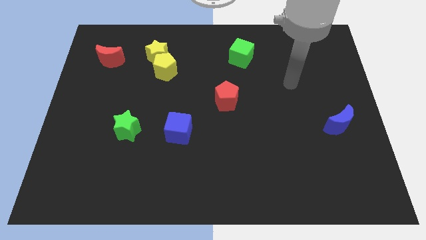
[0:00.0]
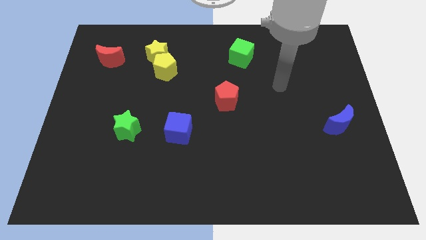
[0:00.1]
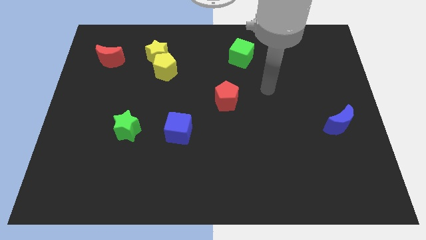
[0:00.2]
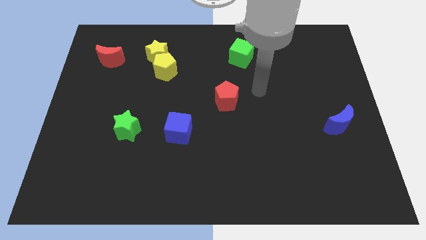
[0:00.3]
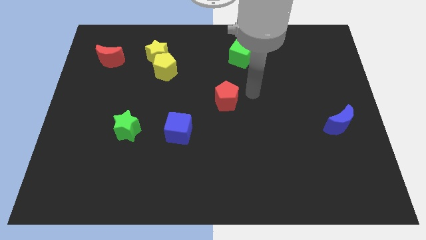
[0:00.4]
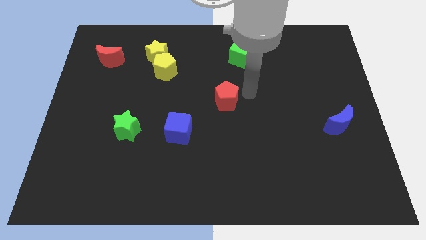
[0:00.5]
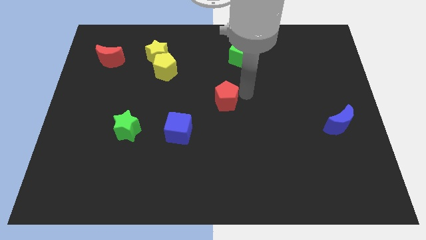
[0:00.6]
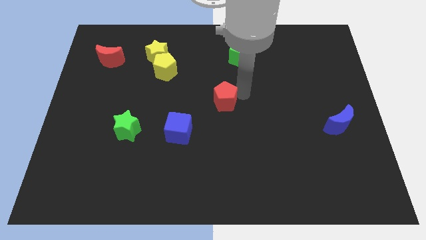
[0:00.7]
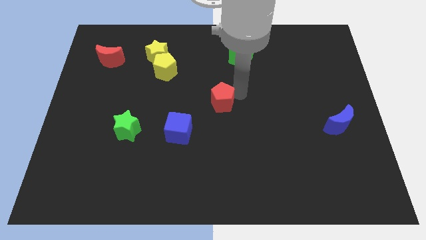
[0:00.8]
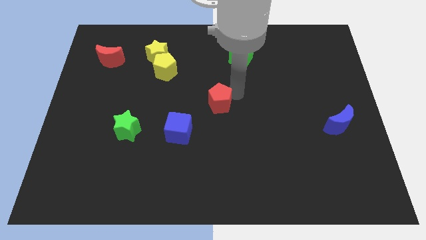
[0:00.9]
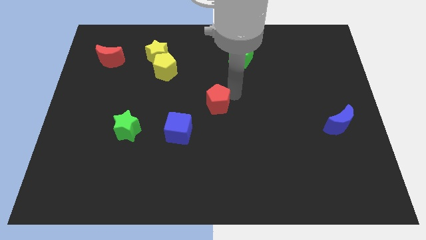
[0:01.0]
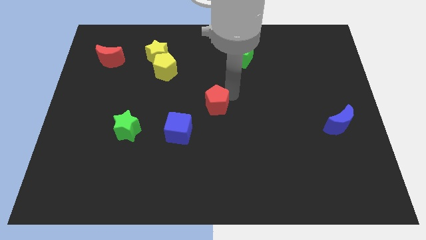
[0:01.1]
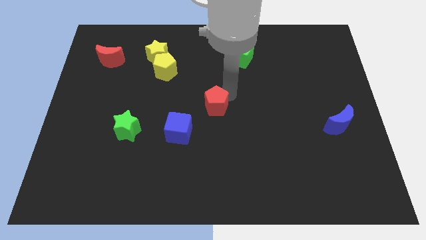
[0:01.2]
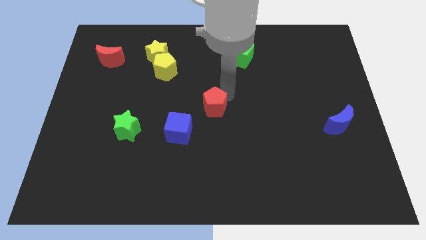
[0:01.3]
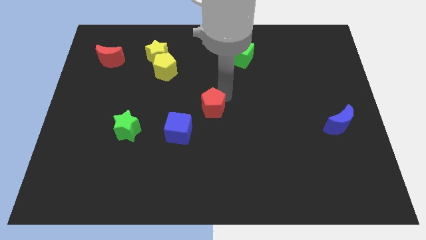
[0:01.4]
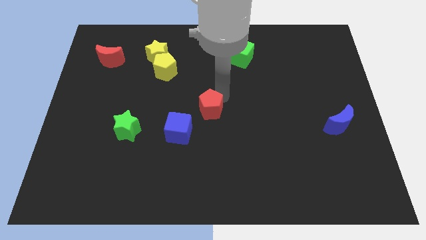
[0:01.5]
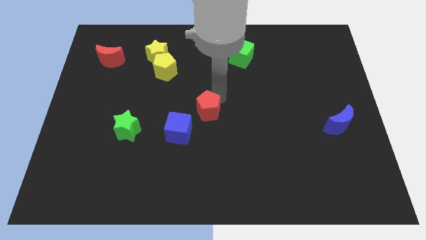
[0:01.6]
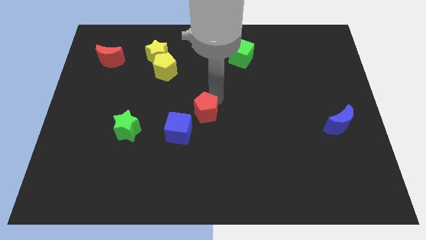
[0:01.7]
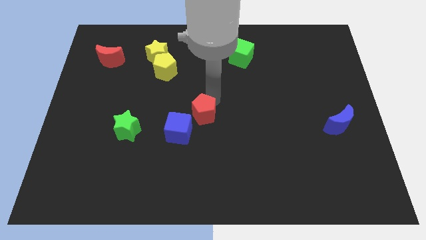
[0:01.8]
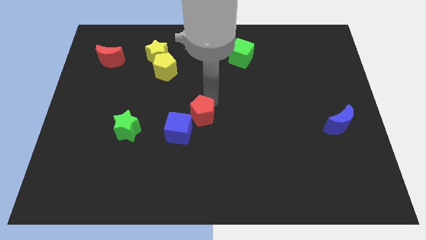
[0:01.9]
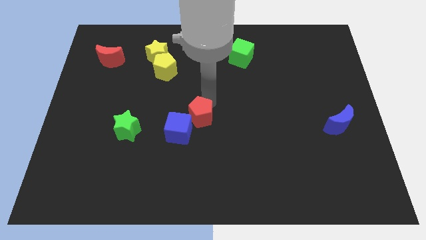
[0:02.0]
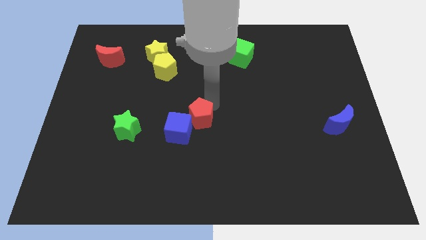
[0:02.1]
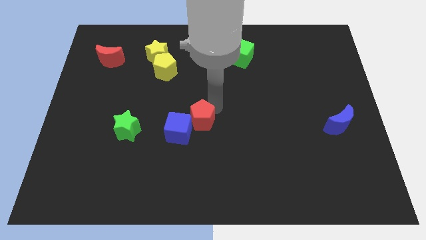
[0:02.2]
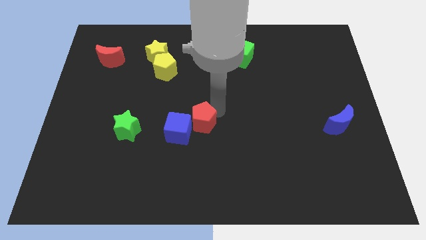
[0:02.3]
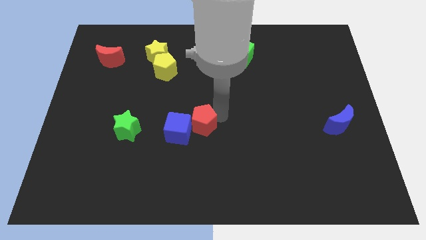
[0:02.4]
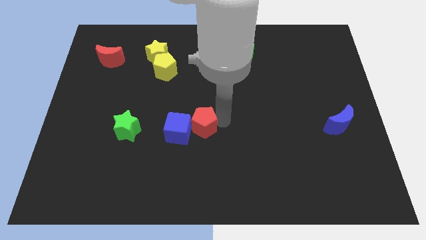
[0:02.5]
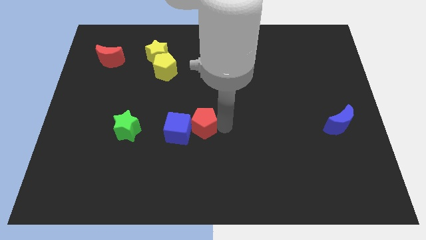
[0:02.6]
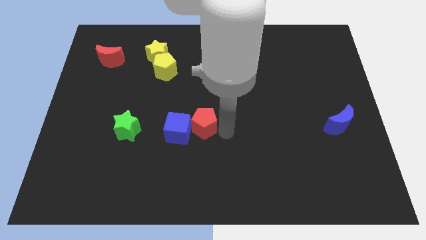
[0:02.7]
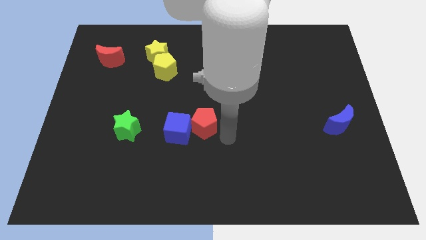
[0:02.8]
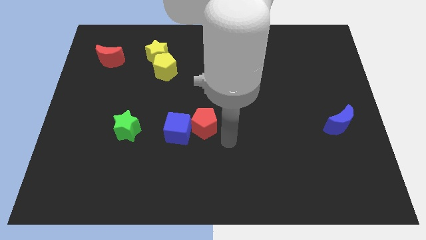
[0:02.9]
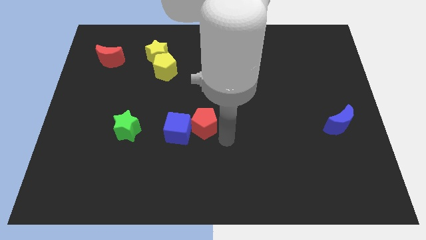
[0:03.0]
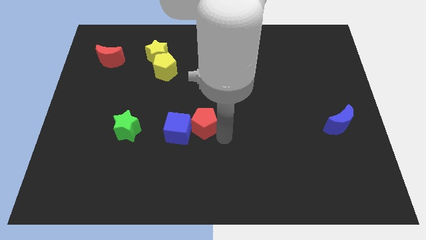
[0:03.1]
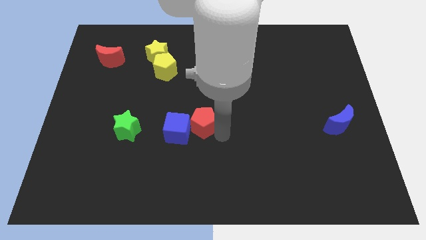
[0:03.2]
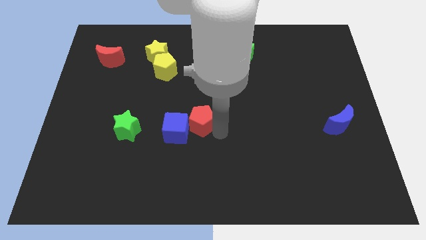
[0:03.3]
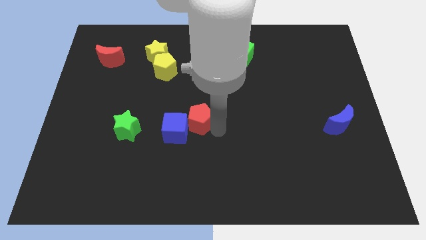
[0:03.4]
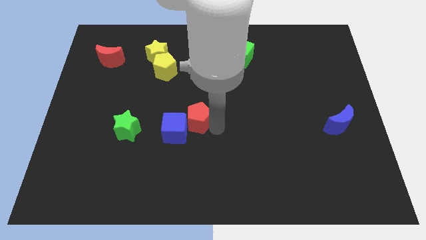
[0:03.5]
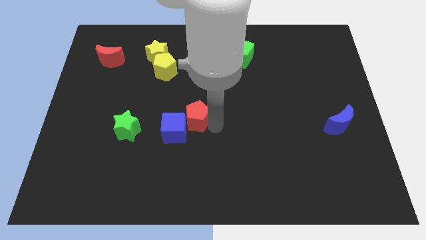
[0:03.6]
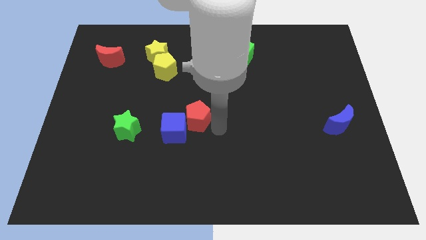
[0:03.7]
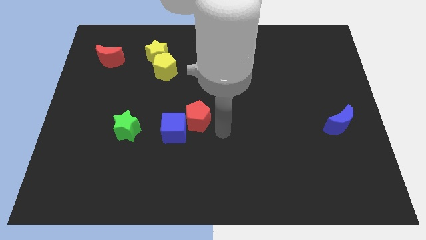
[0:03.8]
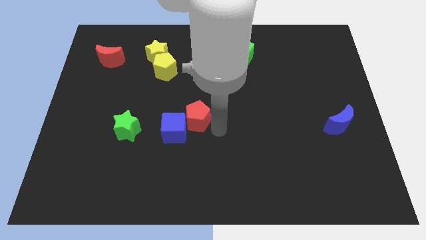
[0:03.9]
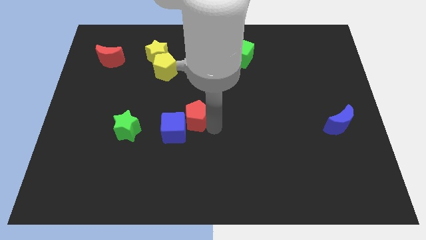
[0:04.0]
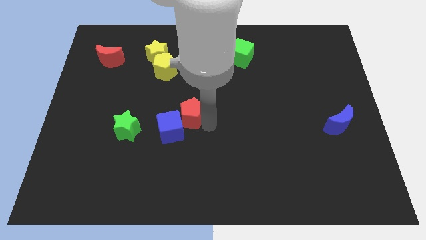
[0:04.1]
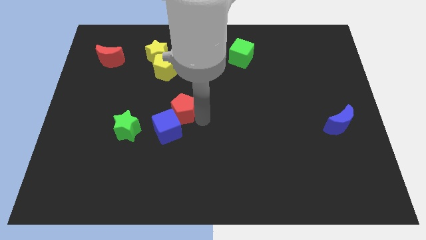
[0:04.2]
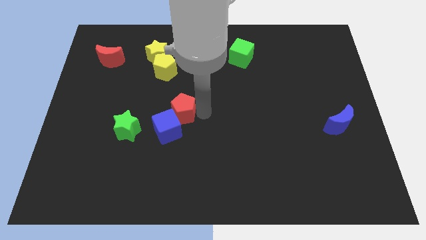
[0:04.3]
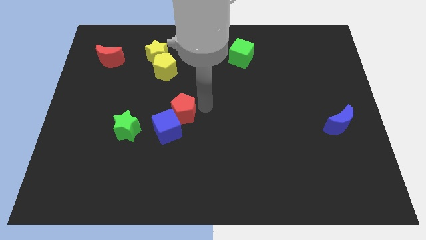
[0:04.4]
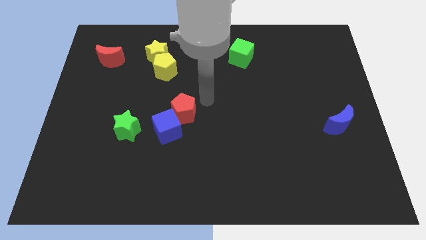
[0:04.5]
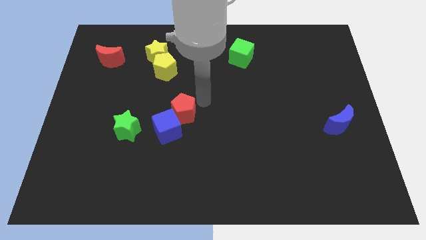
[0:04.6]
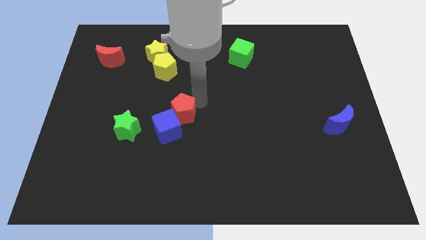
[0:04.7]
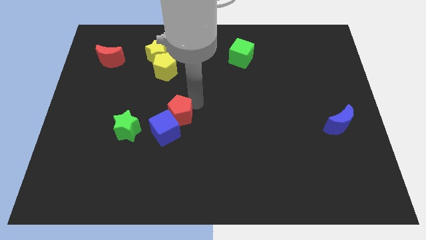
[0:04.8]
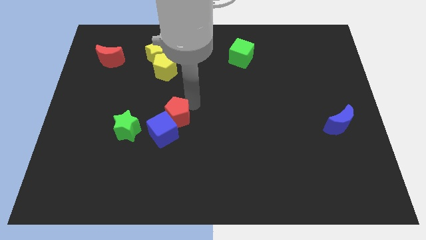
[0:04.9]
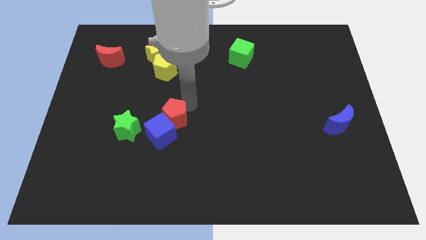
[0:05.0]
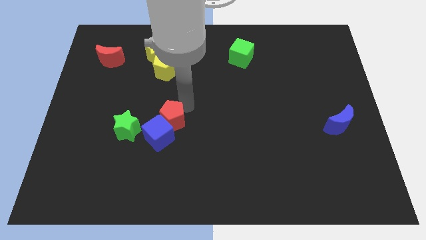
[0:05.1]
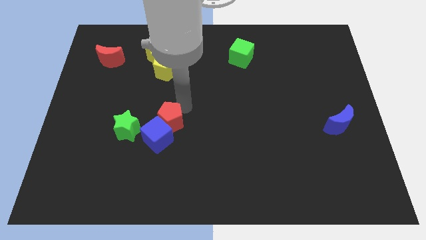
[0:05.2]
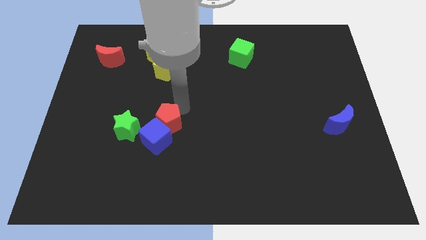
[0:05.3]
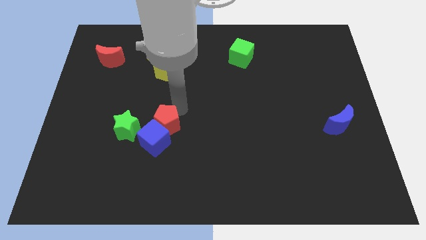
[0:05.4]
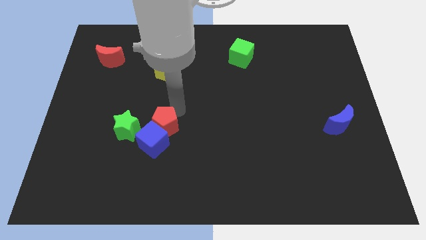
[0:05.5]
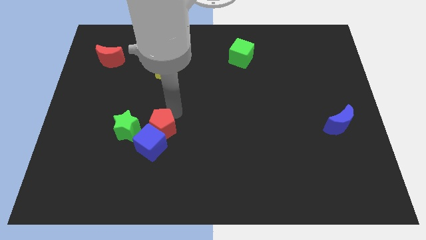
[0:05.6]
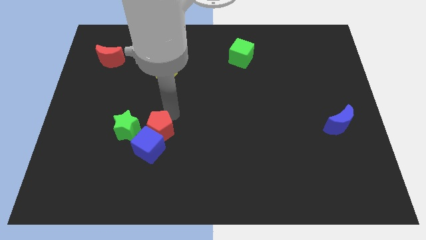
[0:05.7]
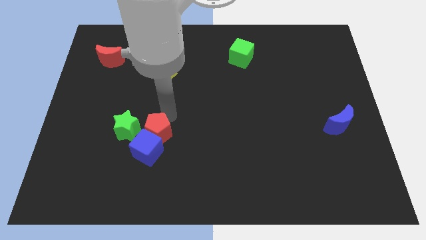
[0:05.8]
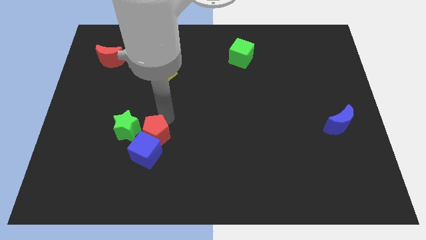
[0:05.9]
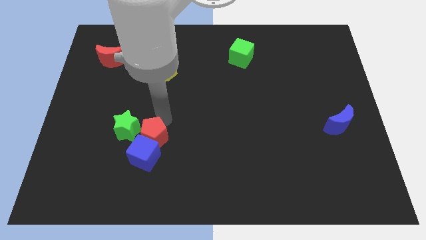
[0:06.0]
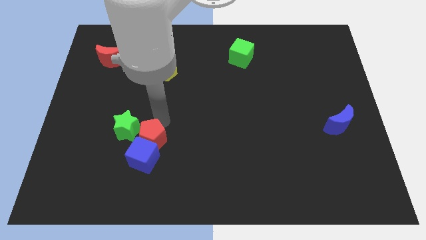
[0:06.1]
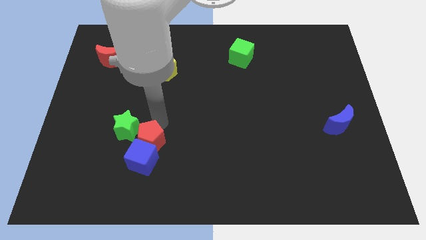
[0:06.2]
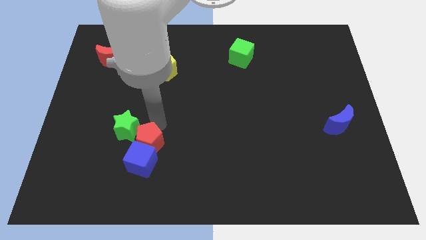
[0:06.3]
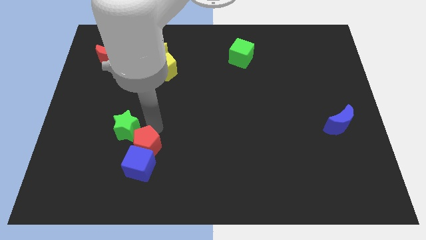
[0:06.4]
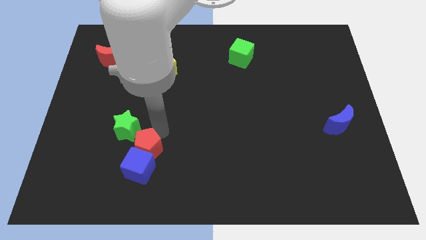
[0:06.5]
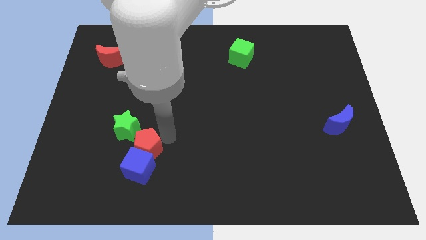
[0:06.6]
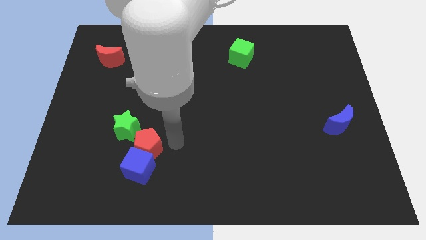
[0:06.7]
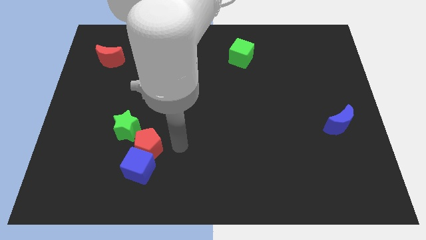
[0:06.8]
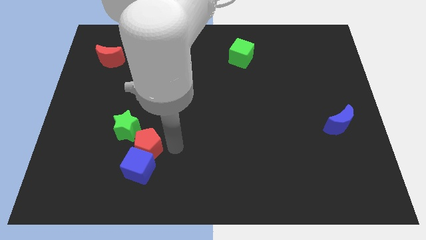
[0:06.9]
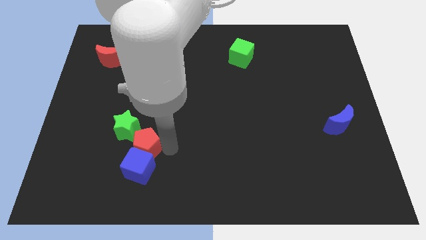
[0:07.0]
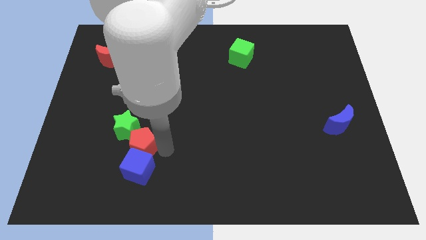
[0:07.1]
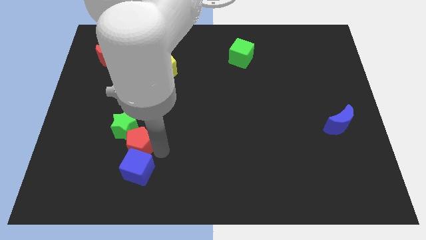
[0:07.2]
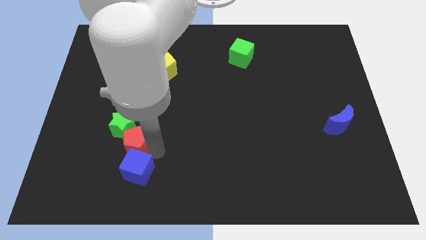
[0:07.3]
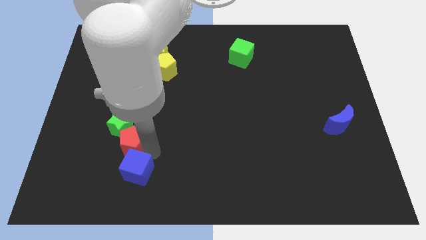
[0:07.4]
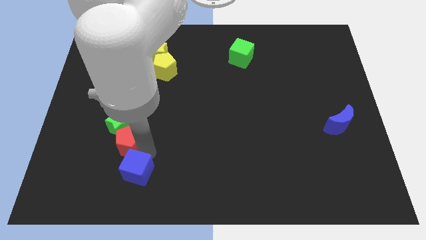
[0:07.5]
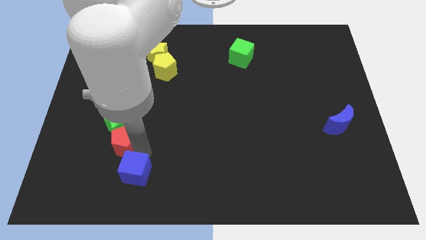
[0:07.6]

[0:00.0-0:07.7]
slide the red pentagon to the bottom left side of the green star

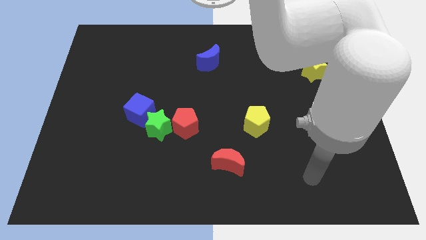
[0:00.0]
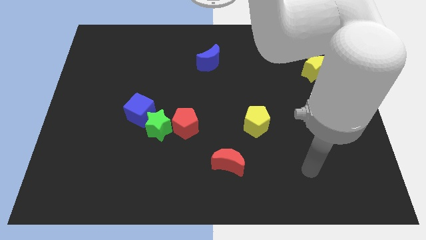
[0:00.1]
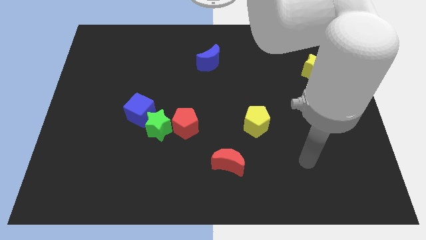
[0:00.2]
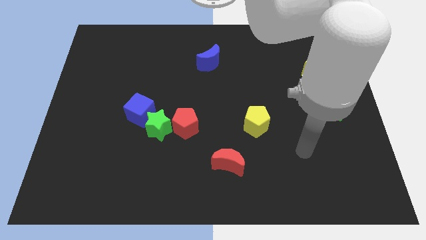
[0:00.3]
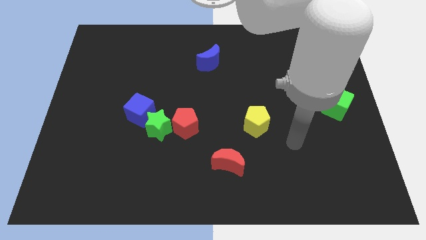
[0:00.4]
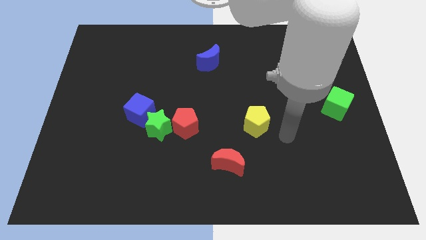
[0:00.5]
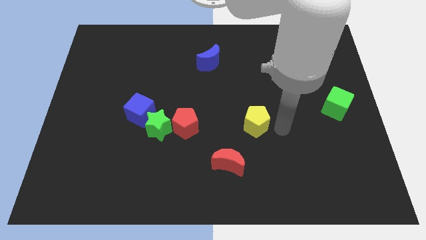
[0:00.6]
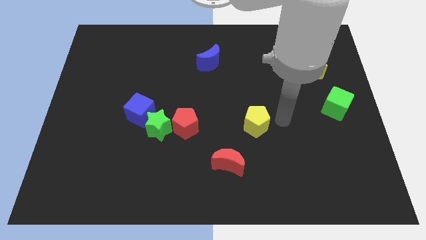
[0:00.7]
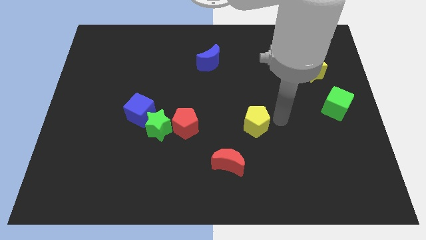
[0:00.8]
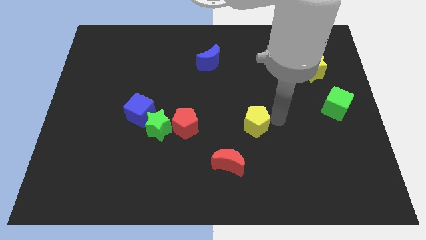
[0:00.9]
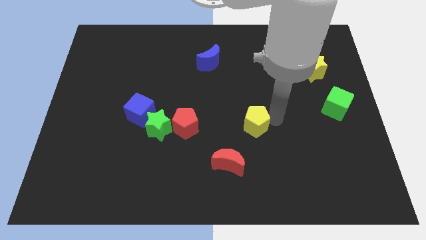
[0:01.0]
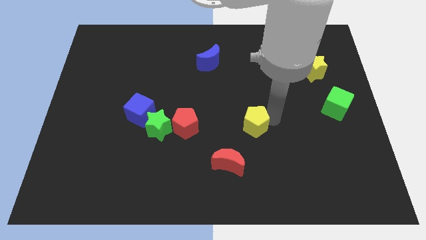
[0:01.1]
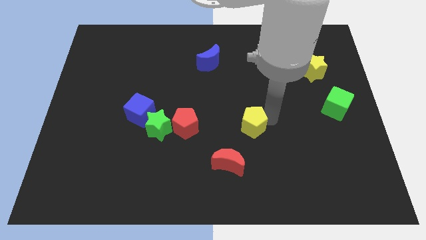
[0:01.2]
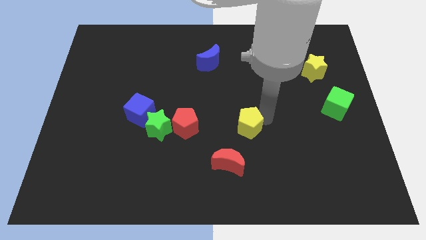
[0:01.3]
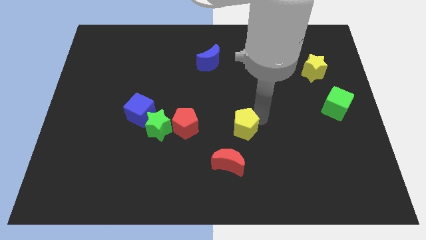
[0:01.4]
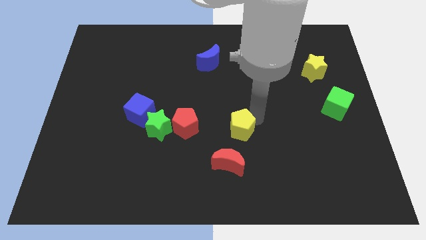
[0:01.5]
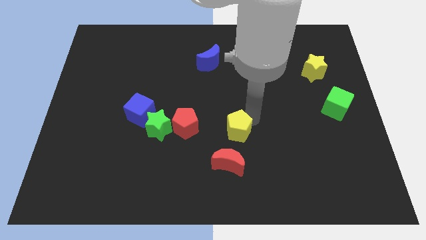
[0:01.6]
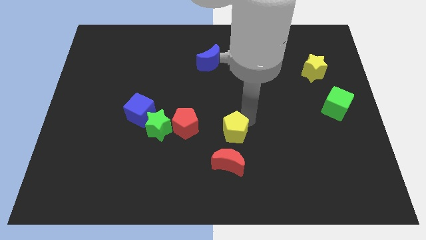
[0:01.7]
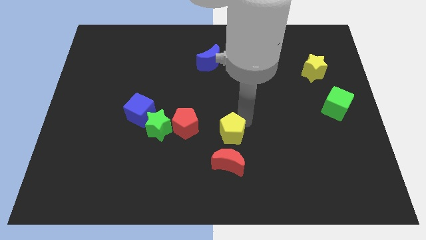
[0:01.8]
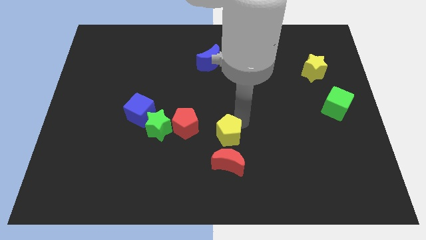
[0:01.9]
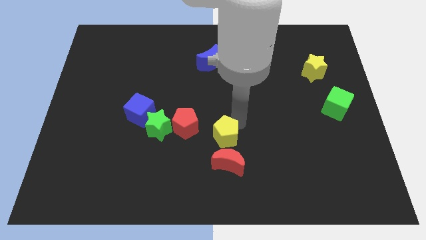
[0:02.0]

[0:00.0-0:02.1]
put the yellow pentagon to the top left of the red moon
